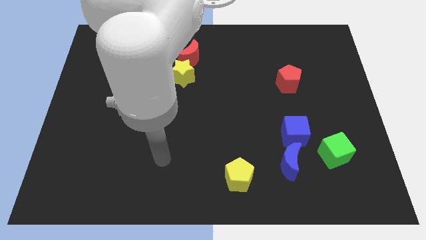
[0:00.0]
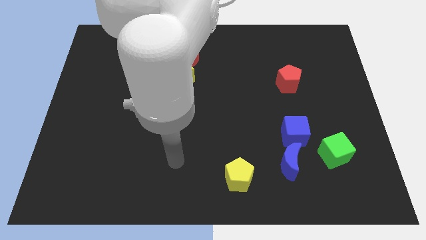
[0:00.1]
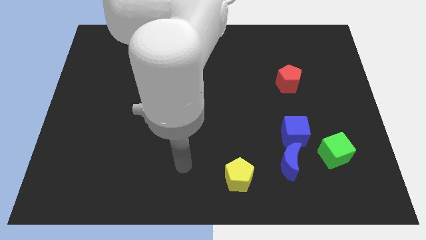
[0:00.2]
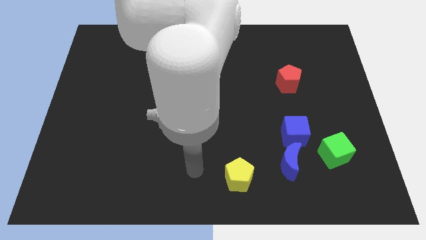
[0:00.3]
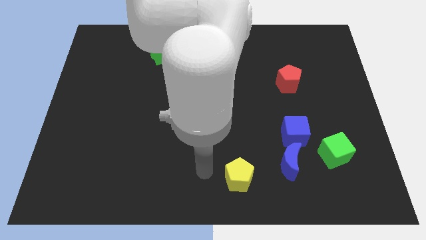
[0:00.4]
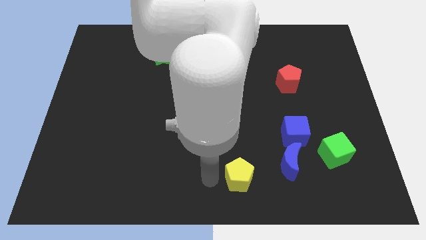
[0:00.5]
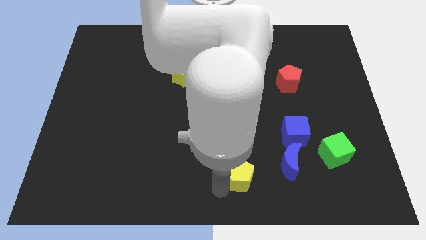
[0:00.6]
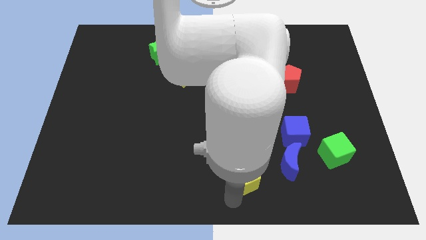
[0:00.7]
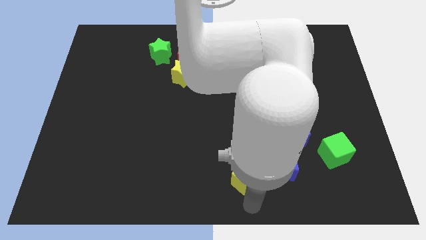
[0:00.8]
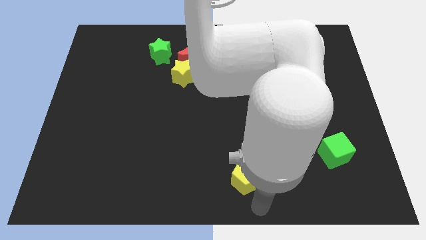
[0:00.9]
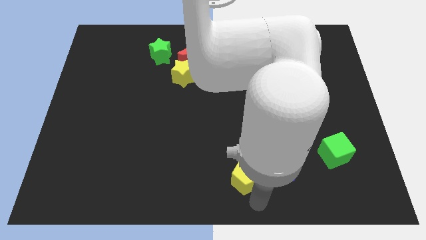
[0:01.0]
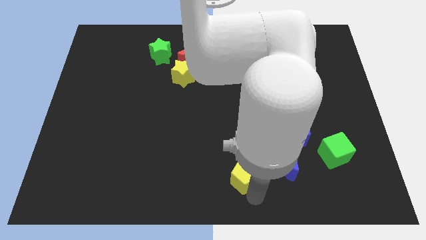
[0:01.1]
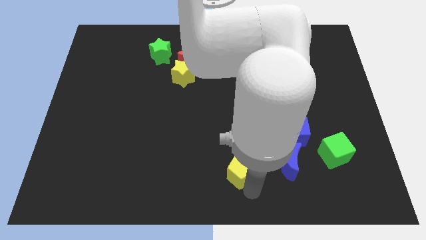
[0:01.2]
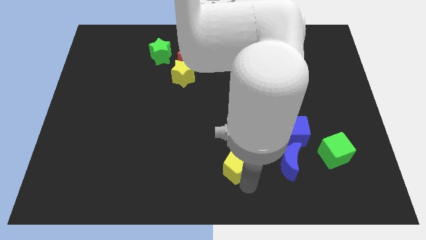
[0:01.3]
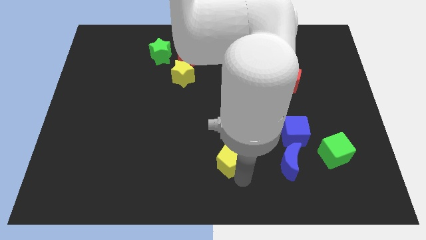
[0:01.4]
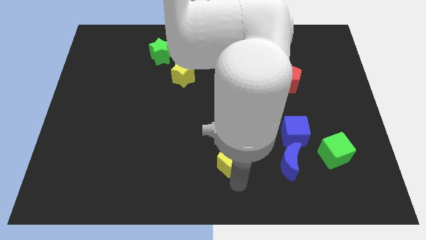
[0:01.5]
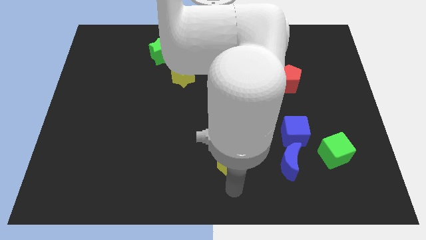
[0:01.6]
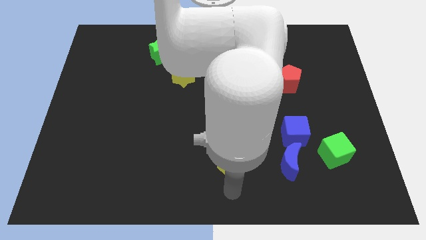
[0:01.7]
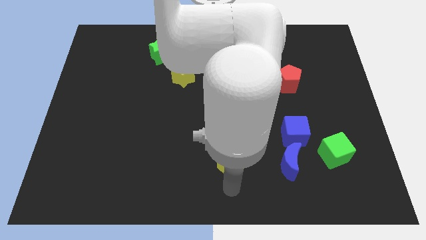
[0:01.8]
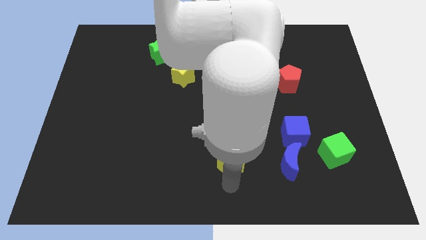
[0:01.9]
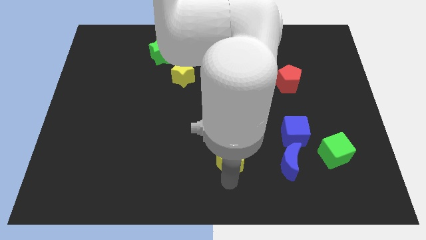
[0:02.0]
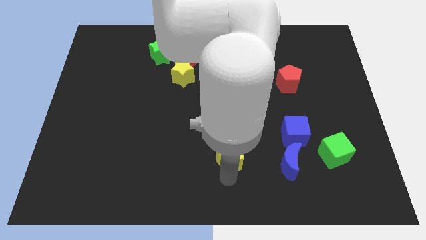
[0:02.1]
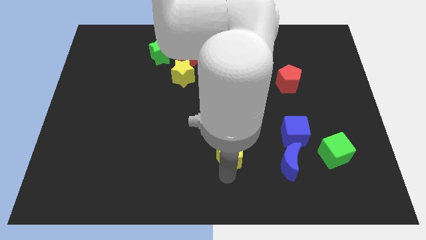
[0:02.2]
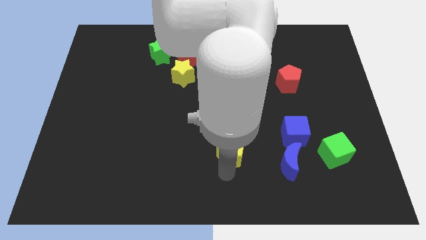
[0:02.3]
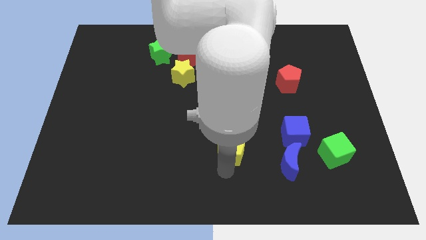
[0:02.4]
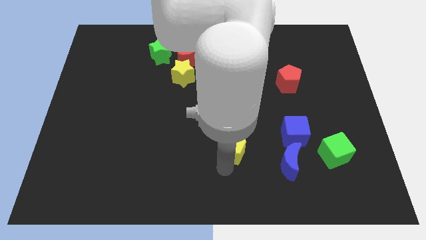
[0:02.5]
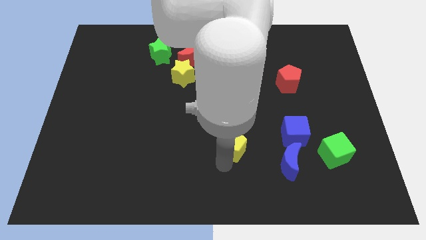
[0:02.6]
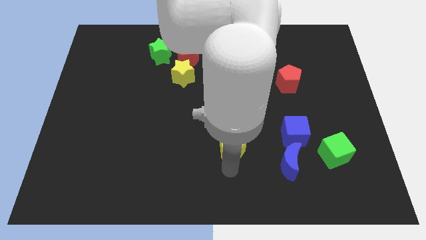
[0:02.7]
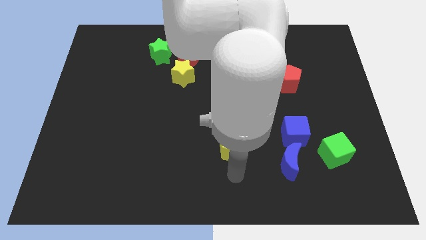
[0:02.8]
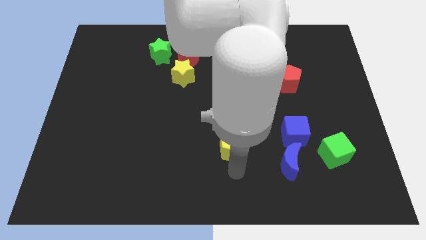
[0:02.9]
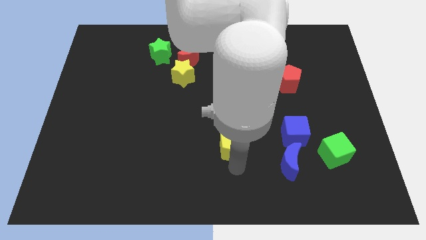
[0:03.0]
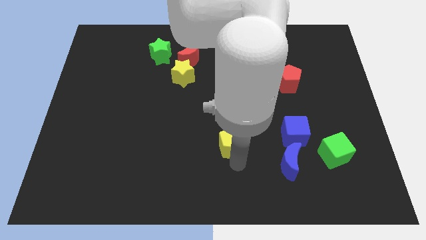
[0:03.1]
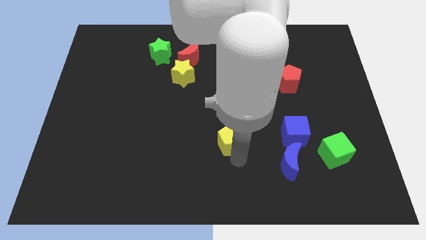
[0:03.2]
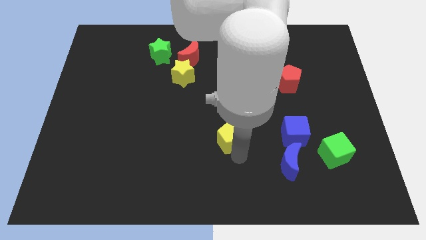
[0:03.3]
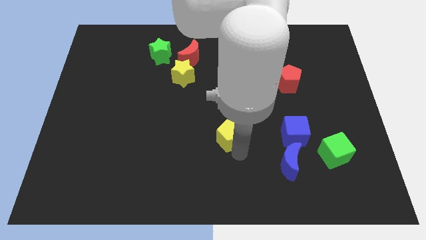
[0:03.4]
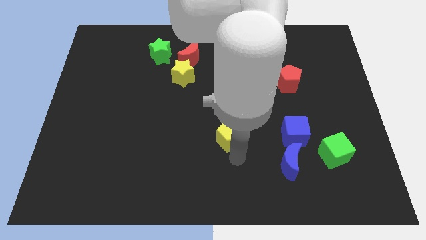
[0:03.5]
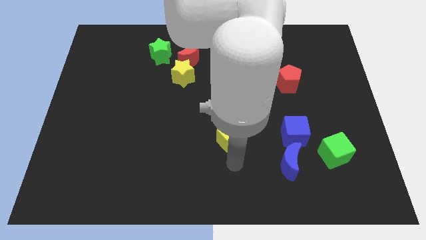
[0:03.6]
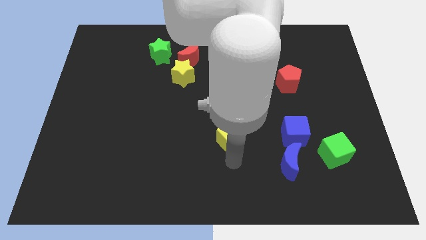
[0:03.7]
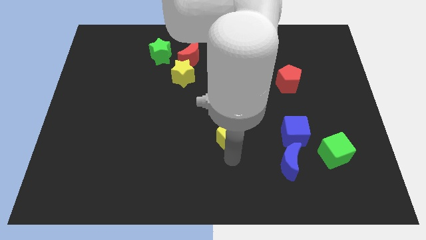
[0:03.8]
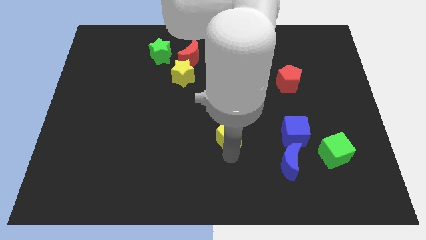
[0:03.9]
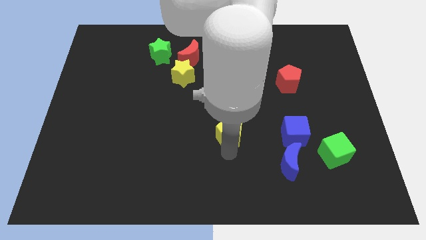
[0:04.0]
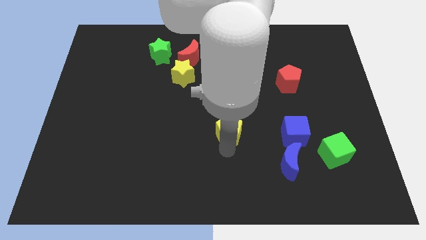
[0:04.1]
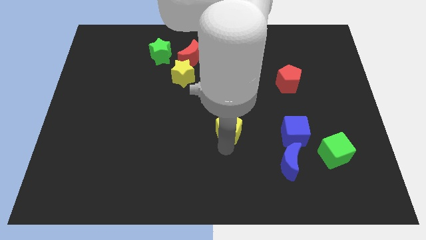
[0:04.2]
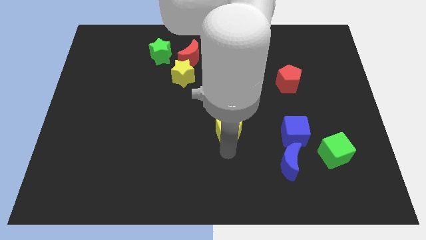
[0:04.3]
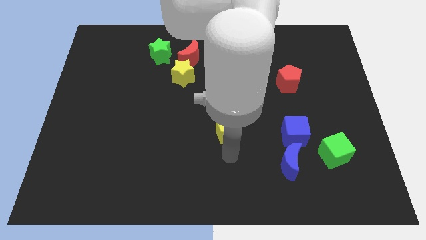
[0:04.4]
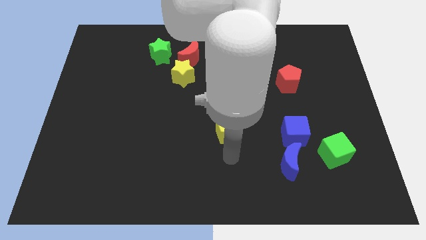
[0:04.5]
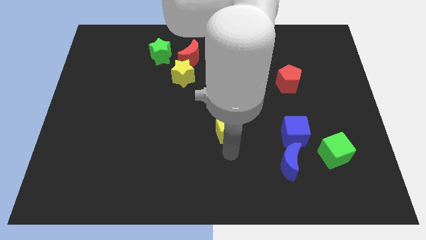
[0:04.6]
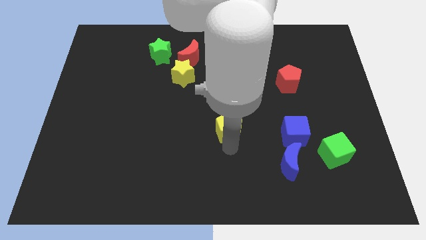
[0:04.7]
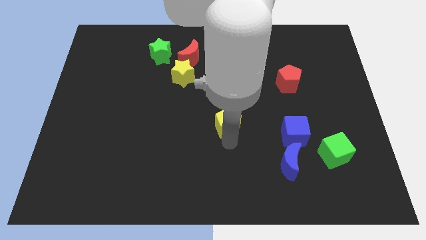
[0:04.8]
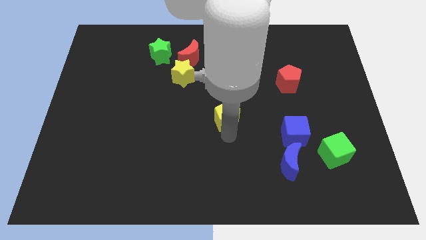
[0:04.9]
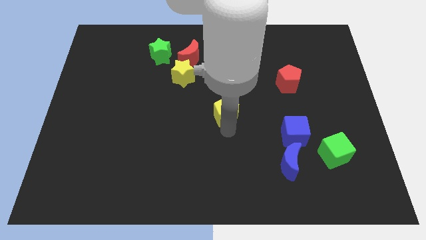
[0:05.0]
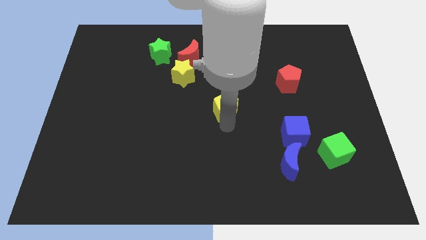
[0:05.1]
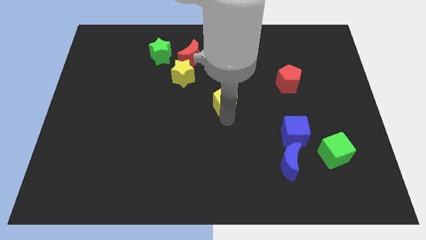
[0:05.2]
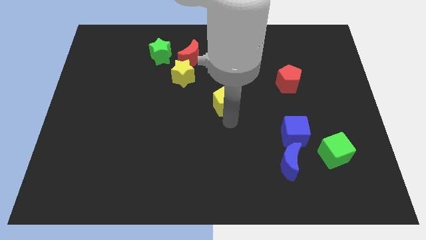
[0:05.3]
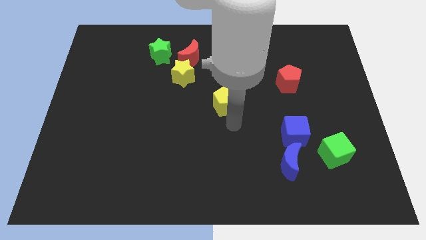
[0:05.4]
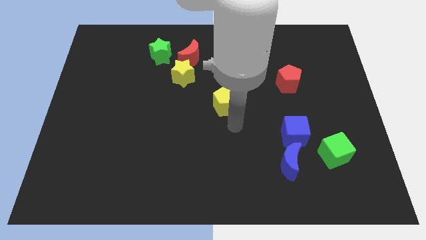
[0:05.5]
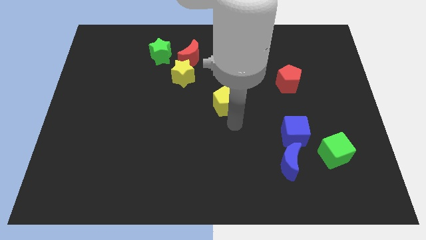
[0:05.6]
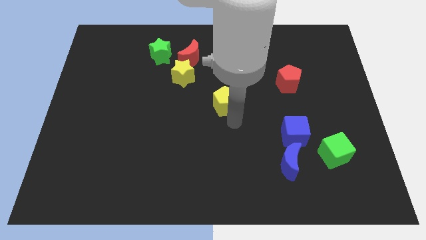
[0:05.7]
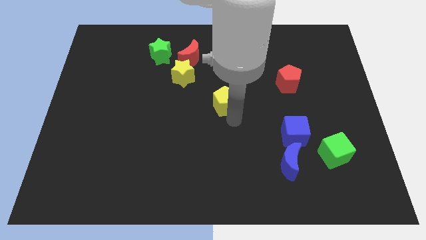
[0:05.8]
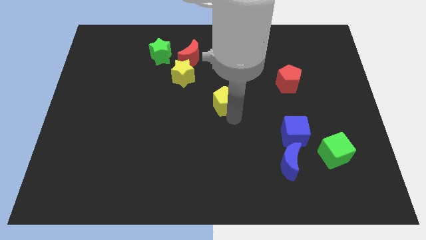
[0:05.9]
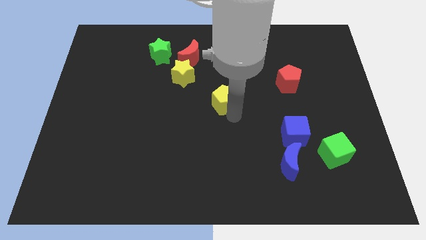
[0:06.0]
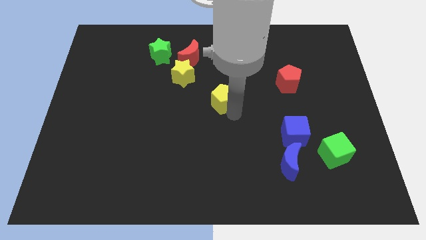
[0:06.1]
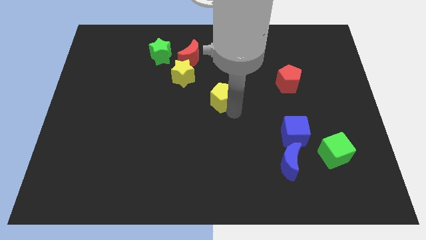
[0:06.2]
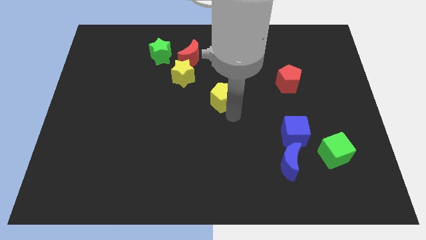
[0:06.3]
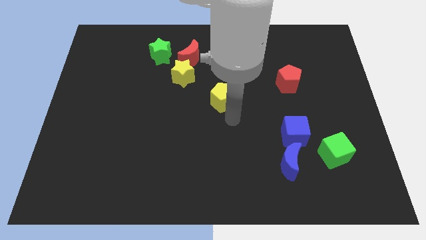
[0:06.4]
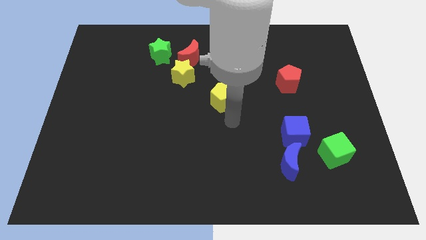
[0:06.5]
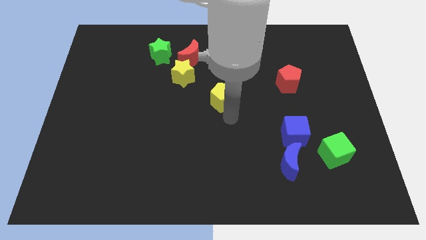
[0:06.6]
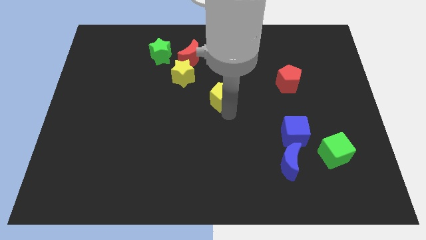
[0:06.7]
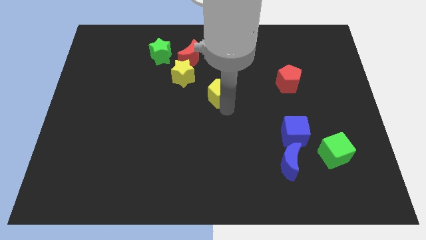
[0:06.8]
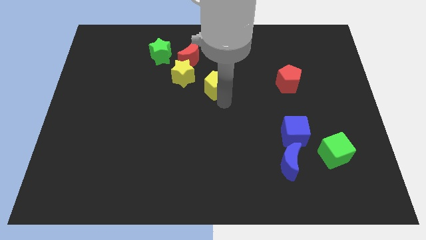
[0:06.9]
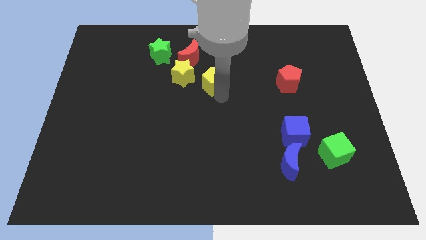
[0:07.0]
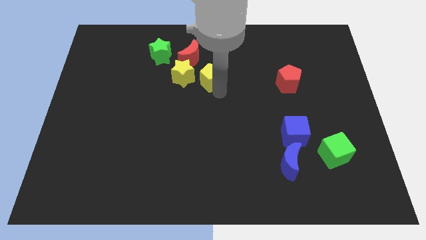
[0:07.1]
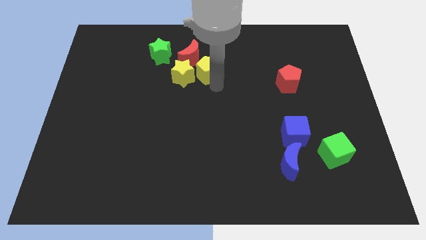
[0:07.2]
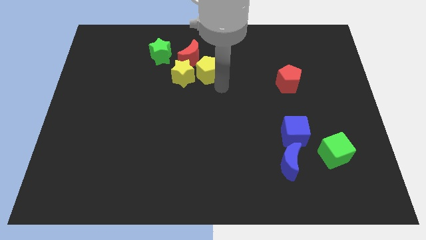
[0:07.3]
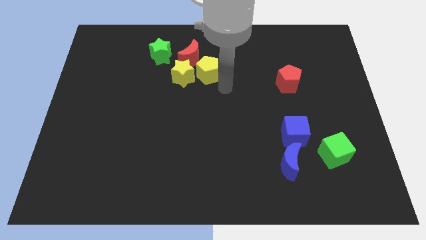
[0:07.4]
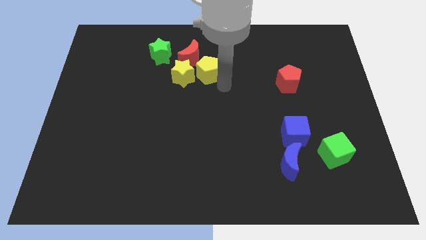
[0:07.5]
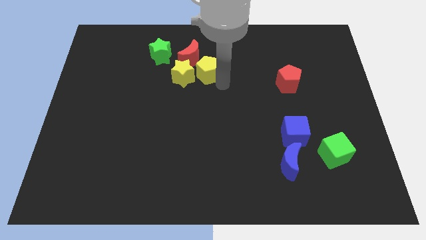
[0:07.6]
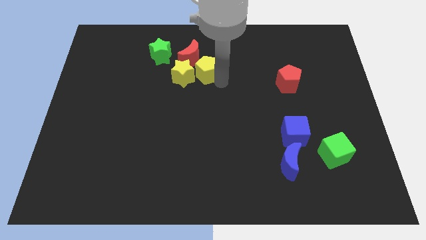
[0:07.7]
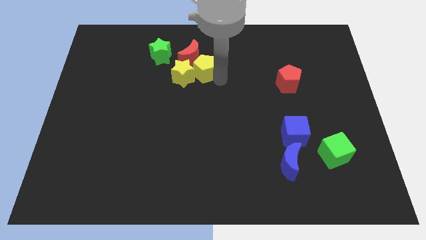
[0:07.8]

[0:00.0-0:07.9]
slide the yellow pentagon next to the red moon
